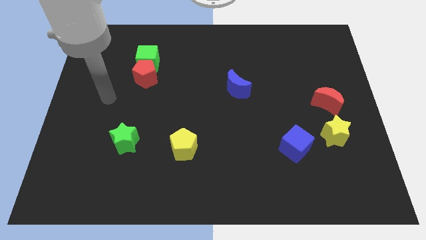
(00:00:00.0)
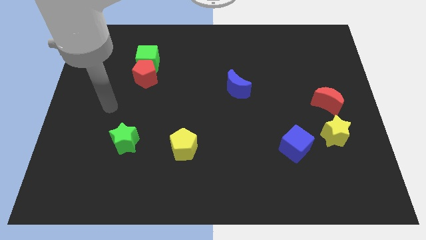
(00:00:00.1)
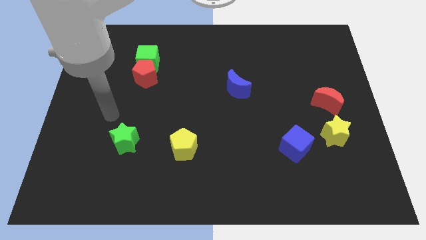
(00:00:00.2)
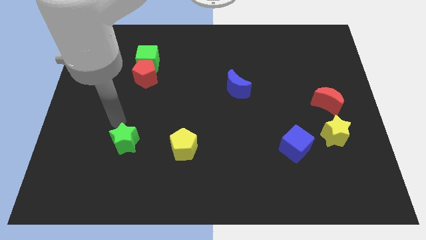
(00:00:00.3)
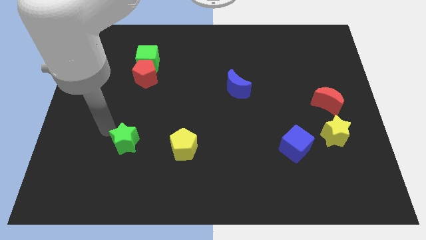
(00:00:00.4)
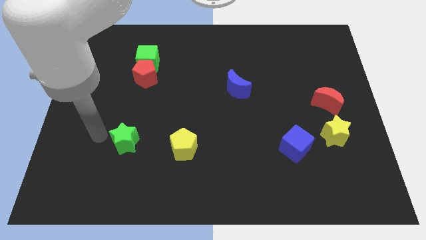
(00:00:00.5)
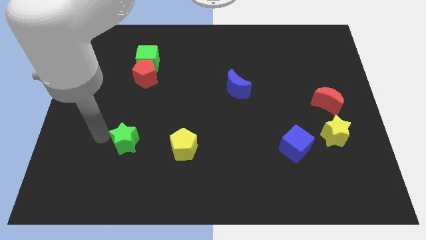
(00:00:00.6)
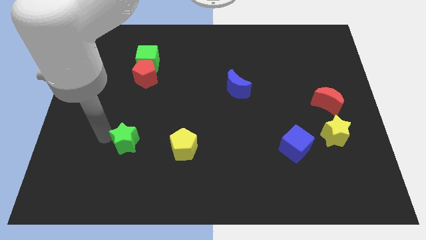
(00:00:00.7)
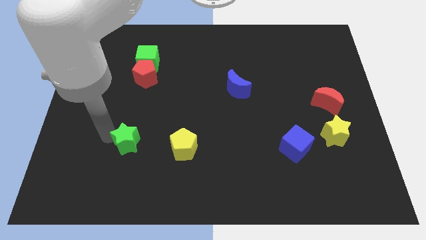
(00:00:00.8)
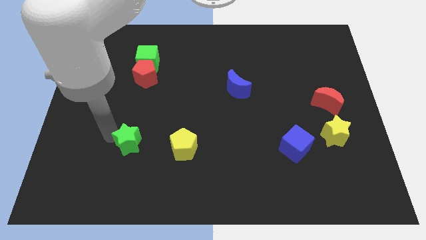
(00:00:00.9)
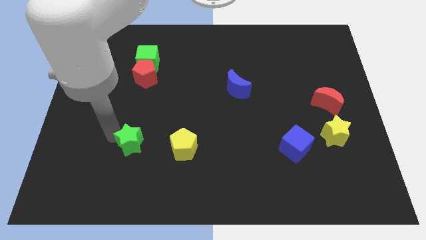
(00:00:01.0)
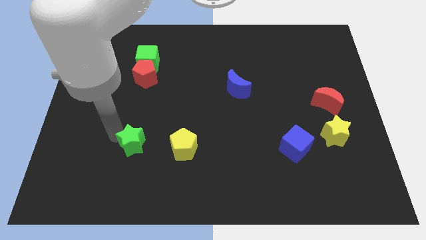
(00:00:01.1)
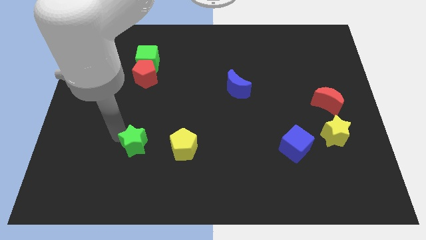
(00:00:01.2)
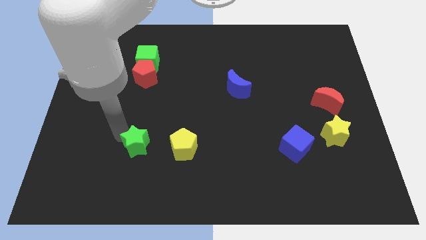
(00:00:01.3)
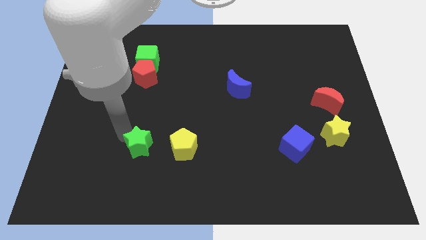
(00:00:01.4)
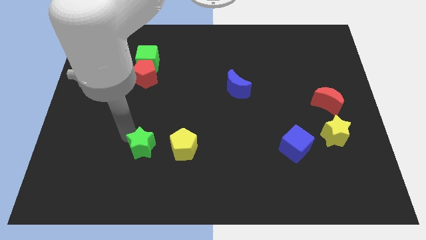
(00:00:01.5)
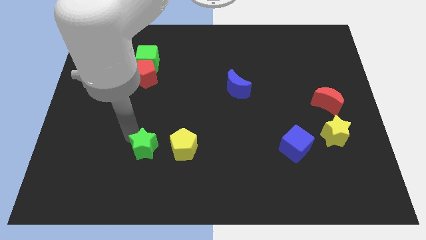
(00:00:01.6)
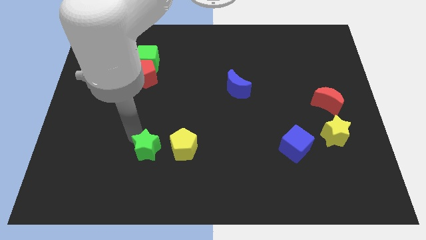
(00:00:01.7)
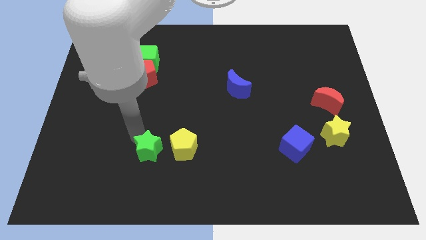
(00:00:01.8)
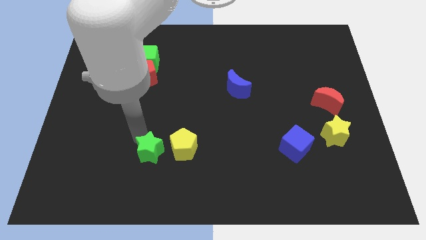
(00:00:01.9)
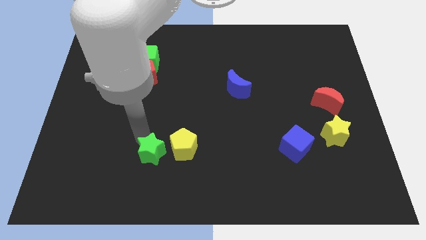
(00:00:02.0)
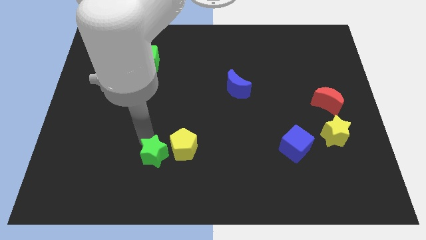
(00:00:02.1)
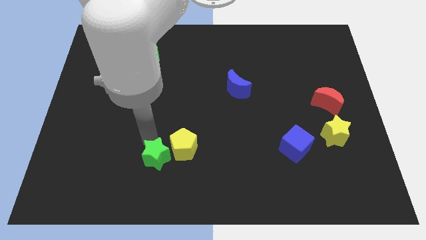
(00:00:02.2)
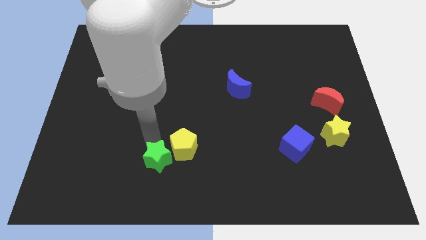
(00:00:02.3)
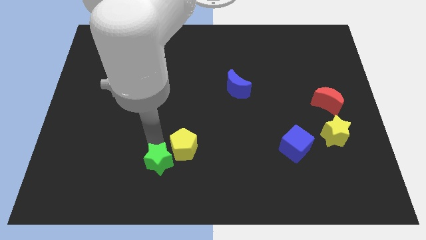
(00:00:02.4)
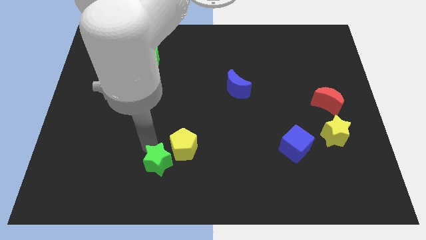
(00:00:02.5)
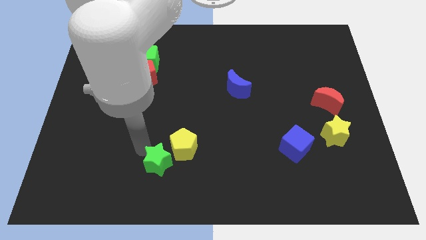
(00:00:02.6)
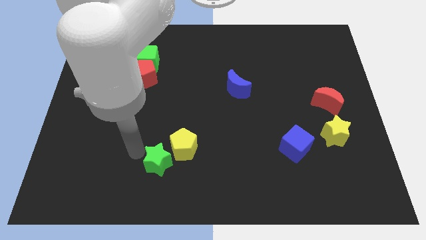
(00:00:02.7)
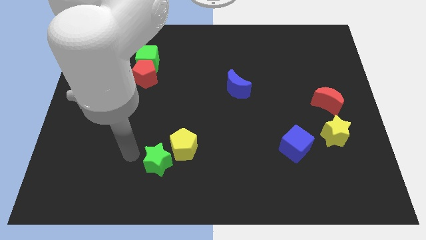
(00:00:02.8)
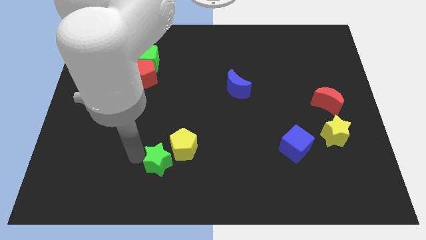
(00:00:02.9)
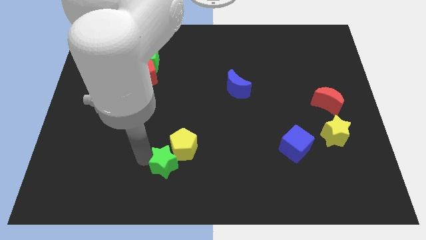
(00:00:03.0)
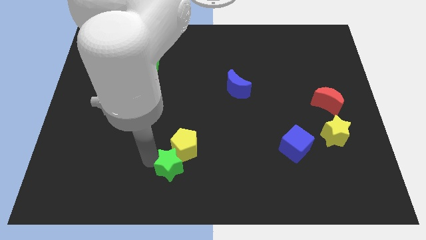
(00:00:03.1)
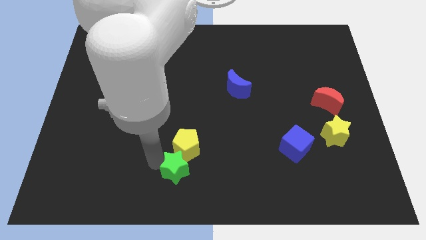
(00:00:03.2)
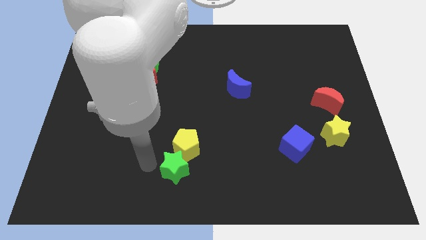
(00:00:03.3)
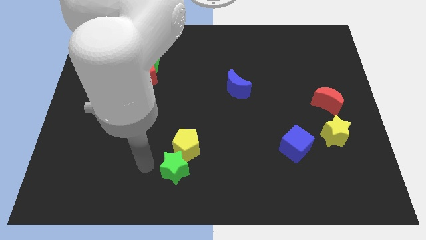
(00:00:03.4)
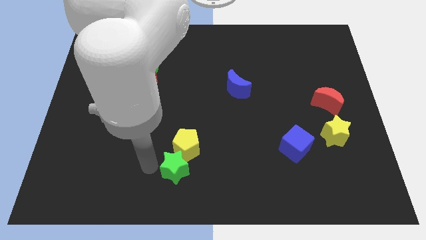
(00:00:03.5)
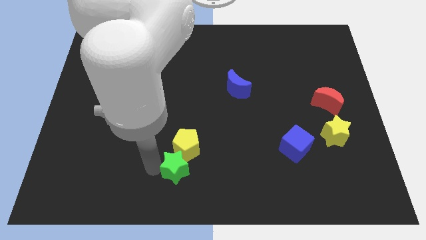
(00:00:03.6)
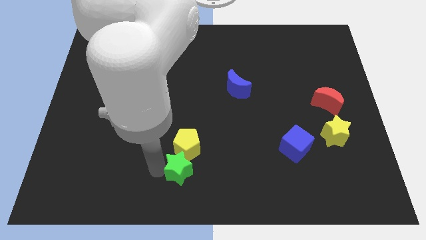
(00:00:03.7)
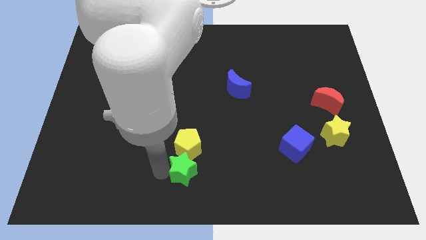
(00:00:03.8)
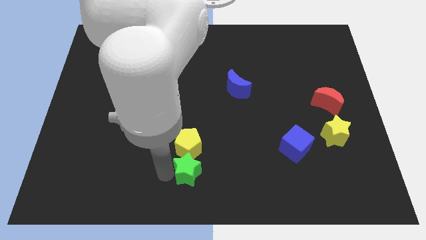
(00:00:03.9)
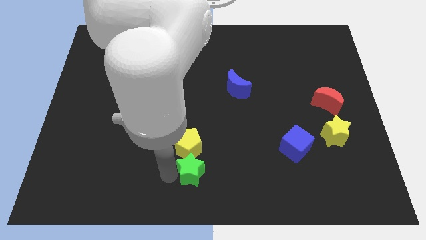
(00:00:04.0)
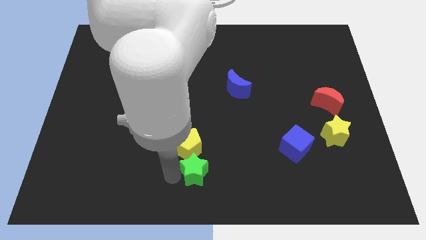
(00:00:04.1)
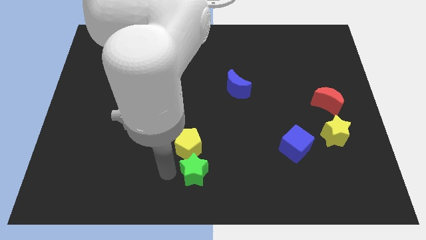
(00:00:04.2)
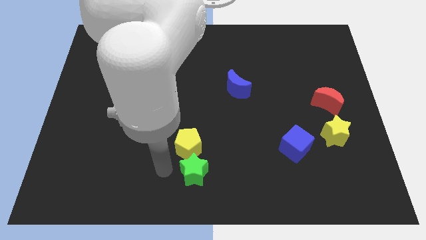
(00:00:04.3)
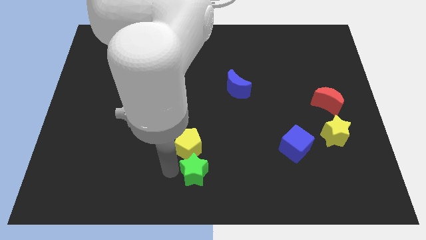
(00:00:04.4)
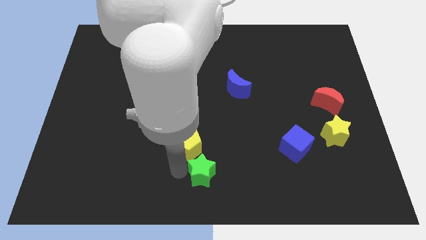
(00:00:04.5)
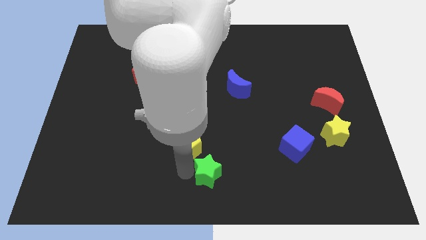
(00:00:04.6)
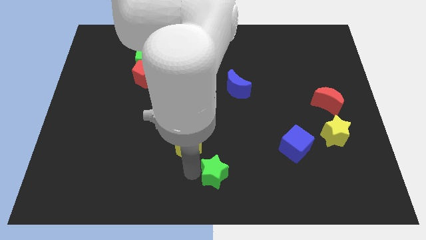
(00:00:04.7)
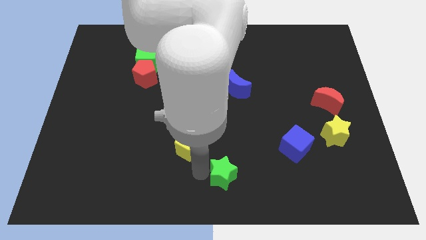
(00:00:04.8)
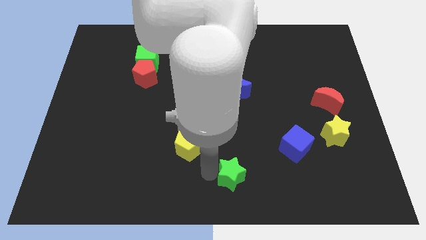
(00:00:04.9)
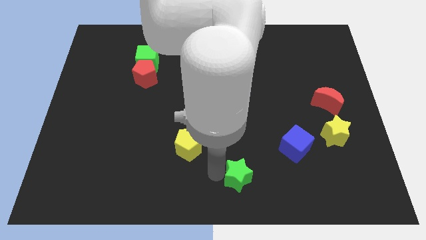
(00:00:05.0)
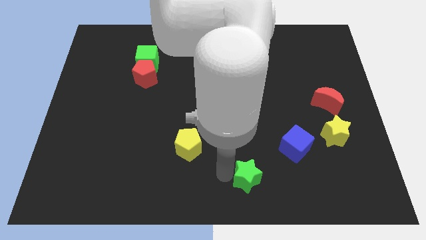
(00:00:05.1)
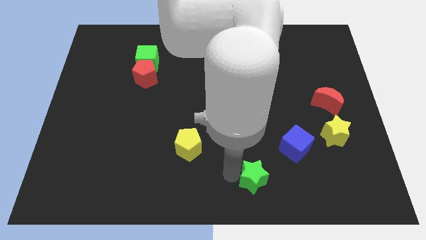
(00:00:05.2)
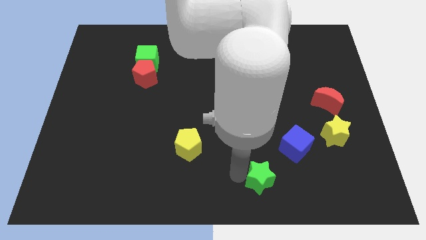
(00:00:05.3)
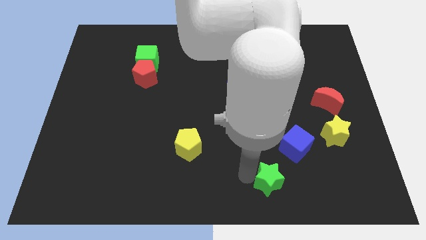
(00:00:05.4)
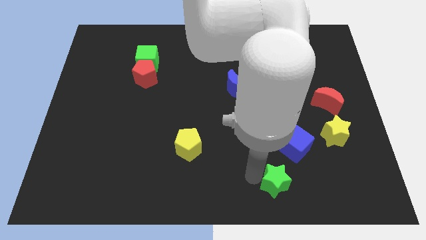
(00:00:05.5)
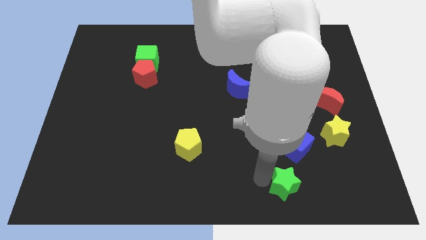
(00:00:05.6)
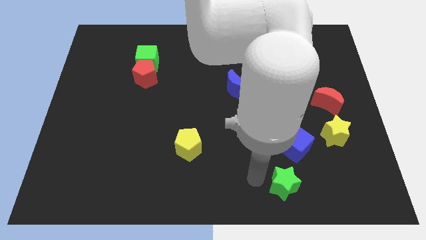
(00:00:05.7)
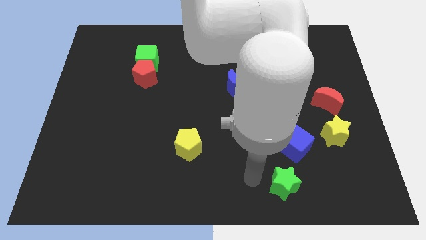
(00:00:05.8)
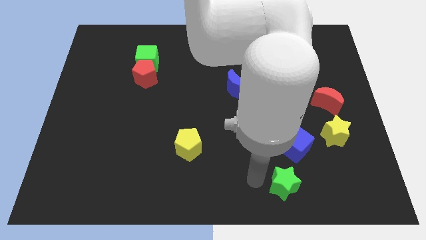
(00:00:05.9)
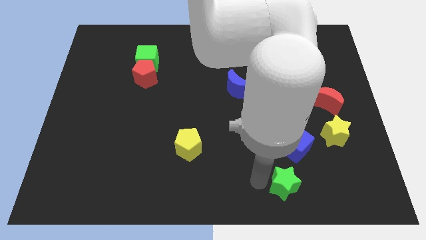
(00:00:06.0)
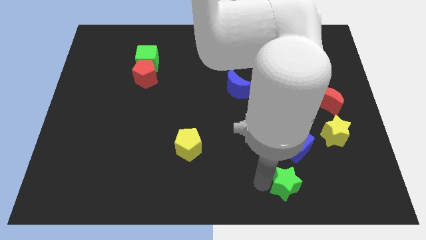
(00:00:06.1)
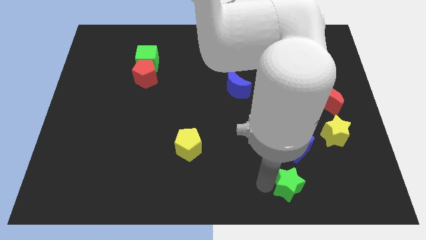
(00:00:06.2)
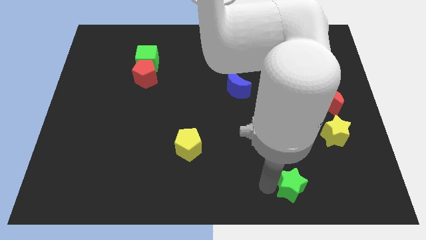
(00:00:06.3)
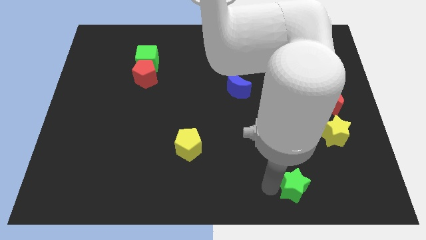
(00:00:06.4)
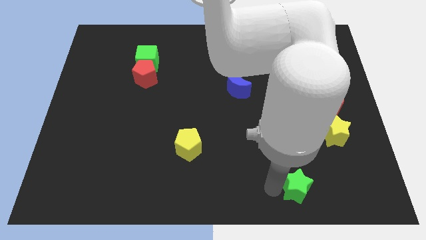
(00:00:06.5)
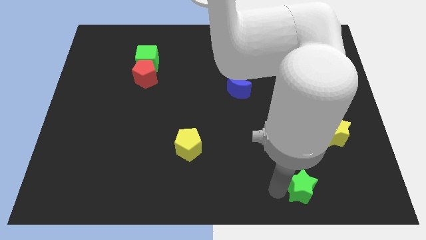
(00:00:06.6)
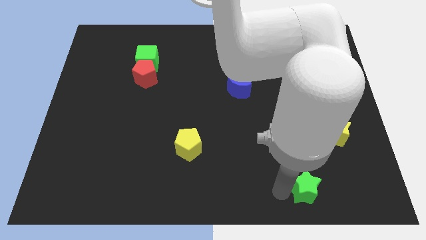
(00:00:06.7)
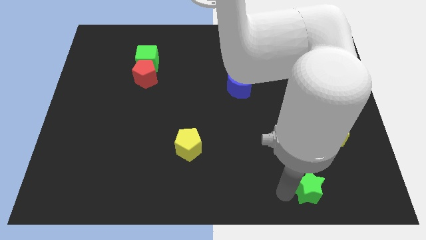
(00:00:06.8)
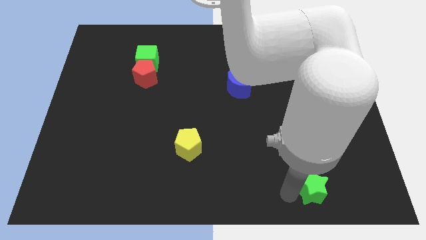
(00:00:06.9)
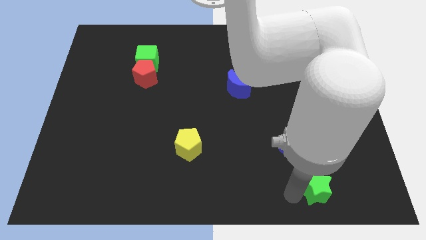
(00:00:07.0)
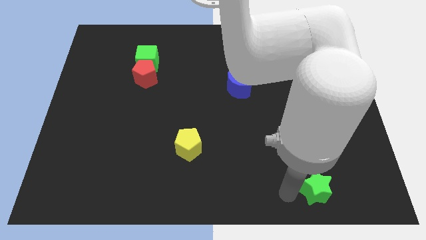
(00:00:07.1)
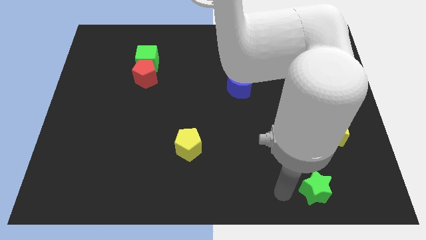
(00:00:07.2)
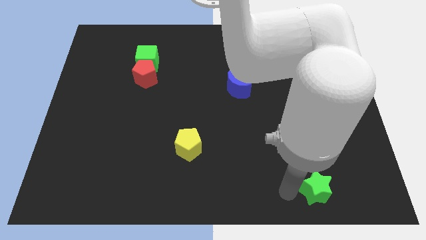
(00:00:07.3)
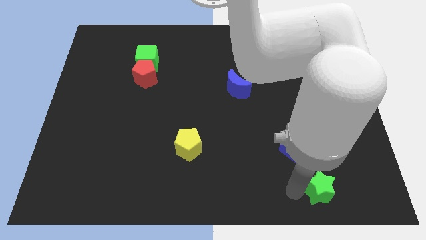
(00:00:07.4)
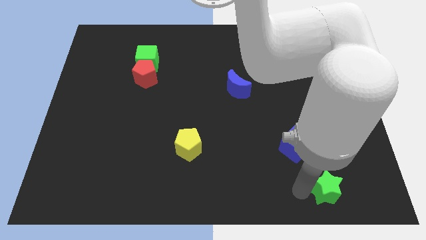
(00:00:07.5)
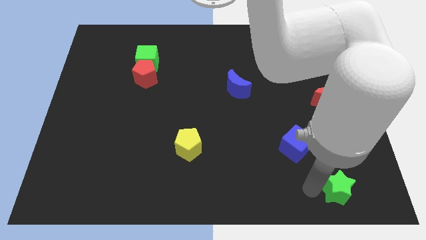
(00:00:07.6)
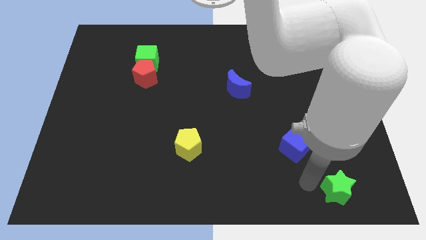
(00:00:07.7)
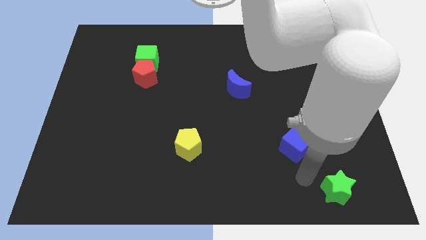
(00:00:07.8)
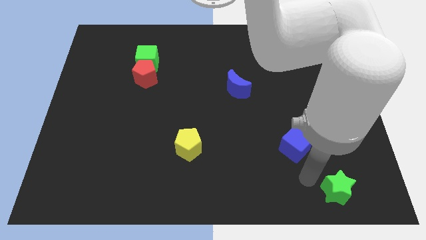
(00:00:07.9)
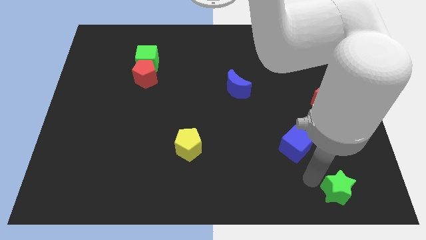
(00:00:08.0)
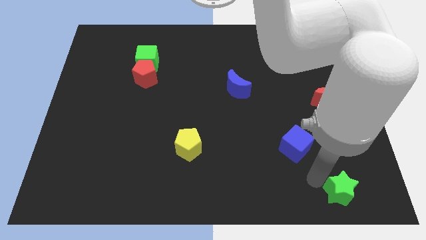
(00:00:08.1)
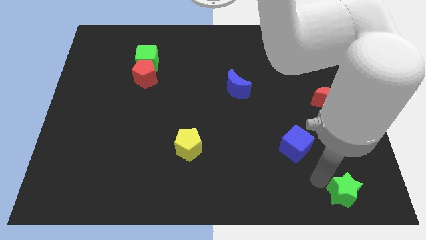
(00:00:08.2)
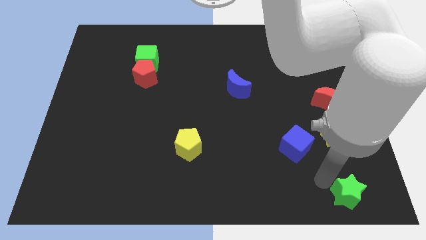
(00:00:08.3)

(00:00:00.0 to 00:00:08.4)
put the green star to the bottom right
